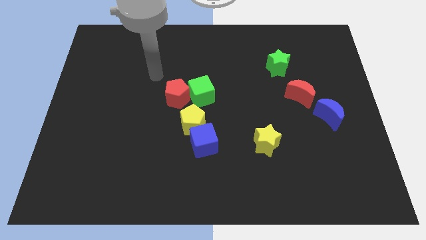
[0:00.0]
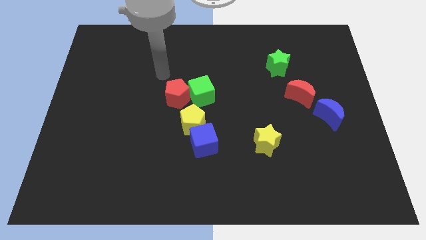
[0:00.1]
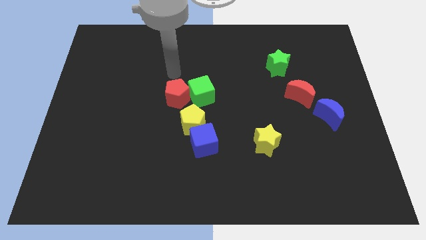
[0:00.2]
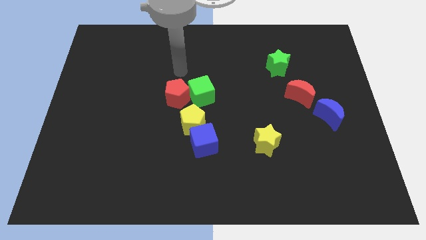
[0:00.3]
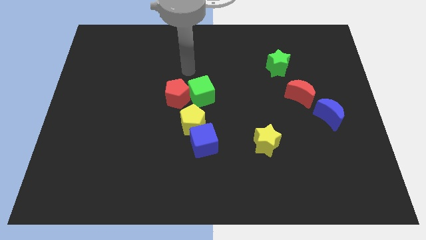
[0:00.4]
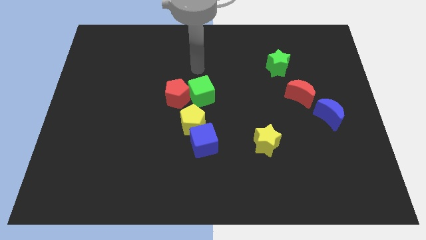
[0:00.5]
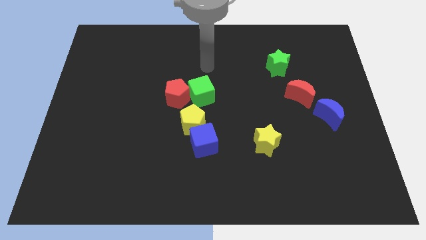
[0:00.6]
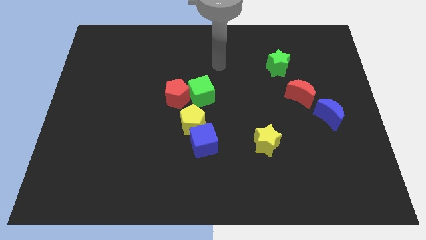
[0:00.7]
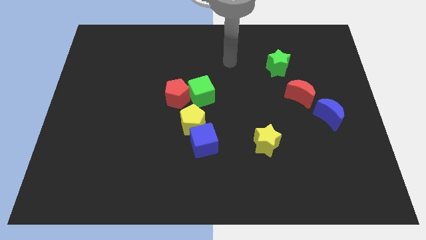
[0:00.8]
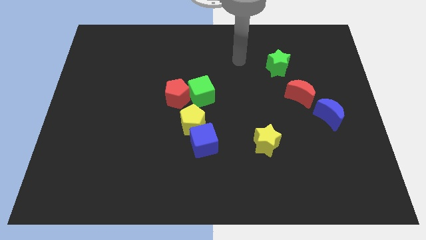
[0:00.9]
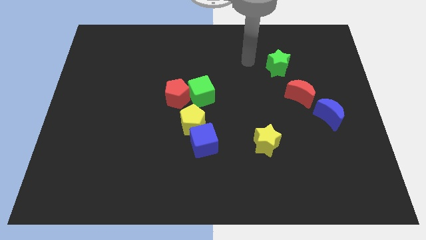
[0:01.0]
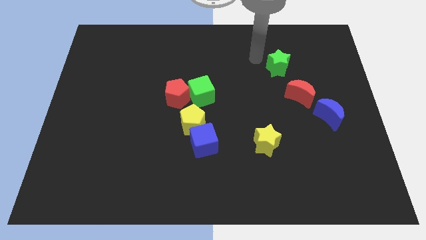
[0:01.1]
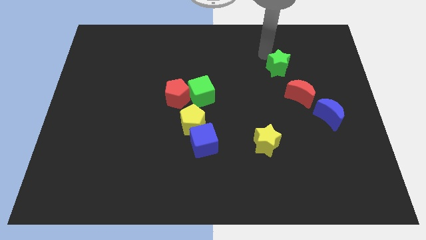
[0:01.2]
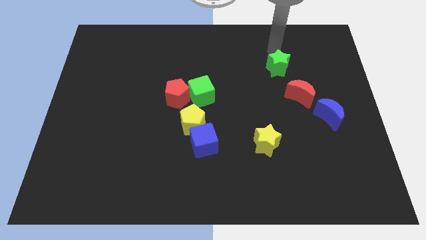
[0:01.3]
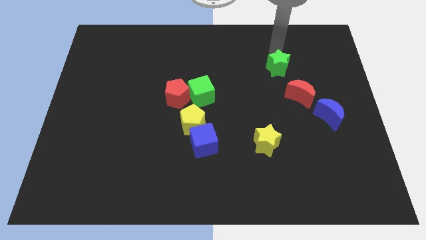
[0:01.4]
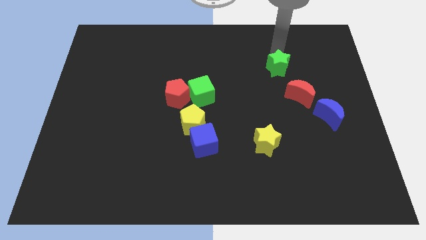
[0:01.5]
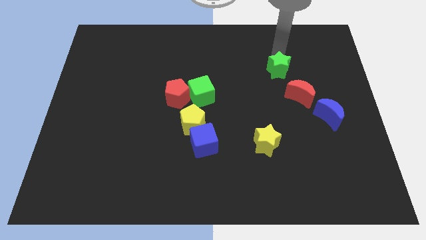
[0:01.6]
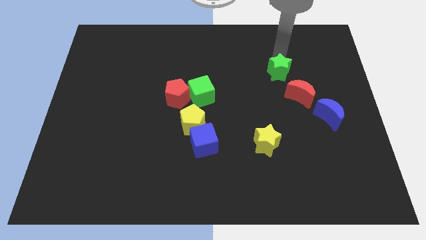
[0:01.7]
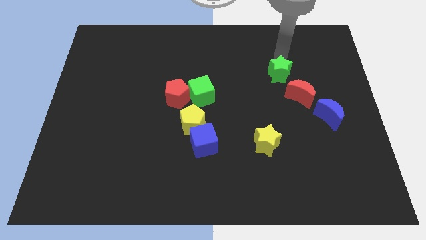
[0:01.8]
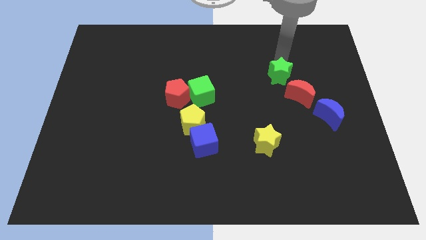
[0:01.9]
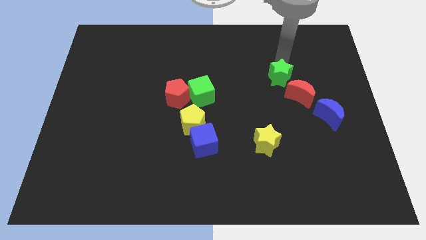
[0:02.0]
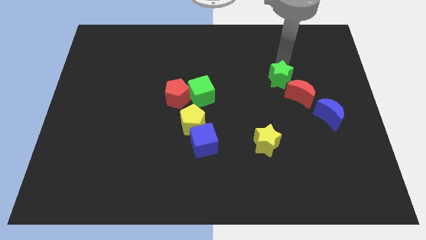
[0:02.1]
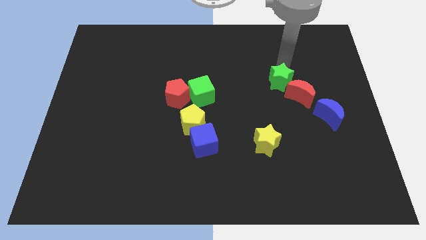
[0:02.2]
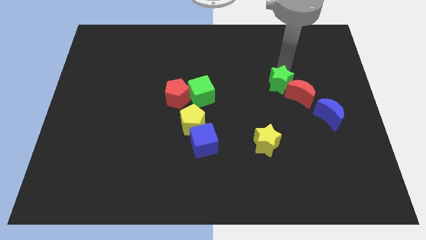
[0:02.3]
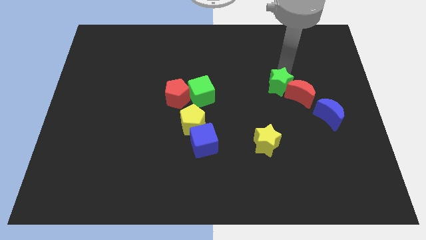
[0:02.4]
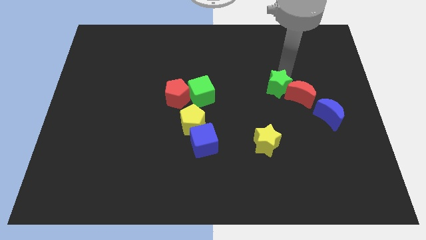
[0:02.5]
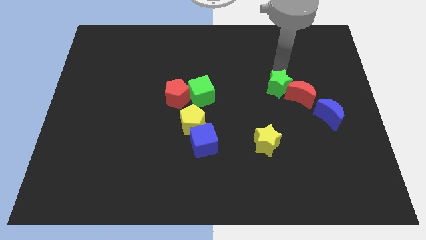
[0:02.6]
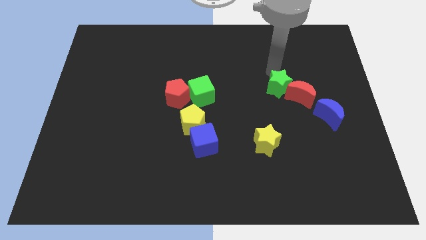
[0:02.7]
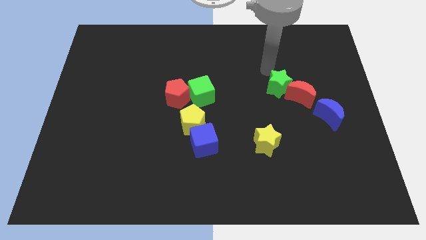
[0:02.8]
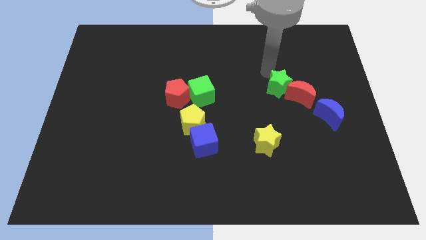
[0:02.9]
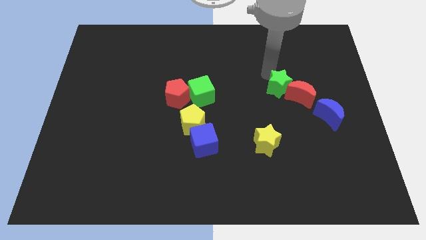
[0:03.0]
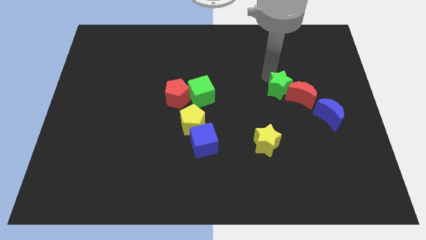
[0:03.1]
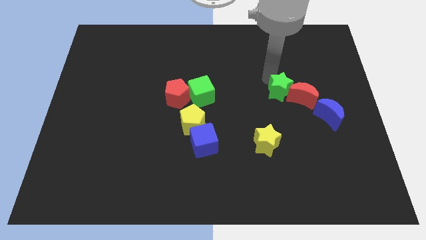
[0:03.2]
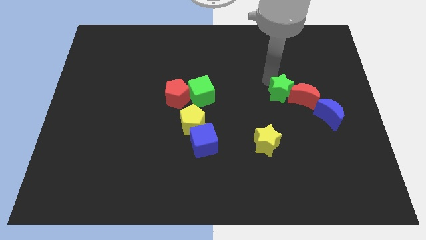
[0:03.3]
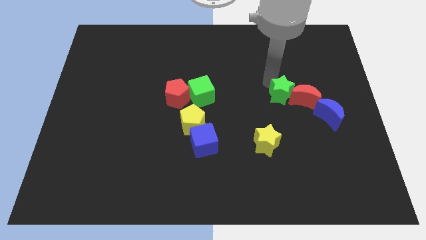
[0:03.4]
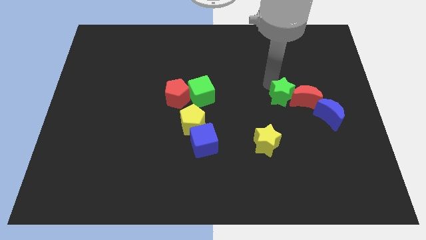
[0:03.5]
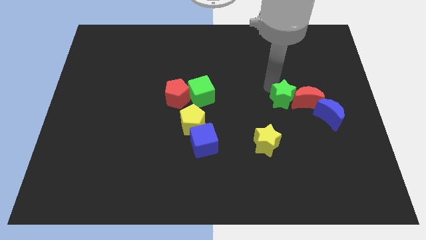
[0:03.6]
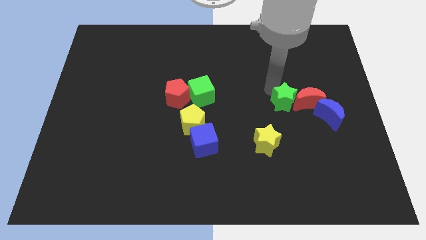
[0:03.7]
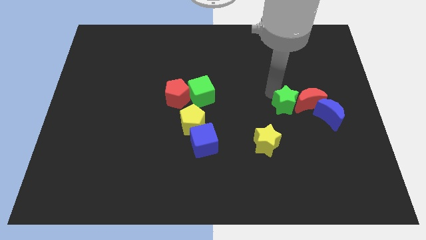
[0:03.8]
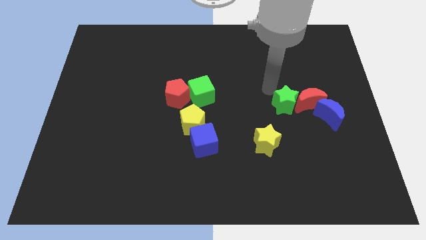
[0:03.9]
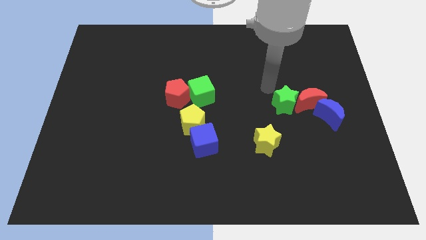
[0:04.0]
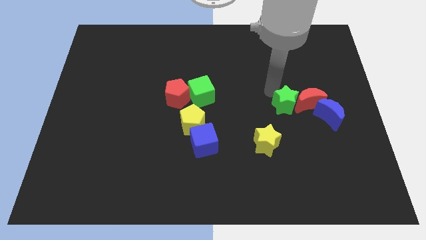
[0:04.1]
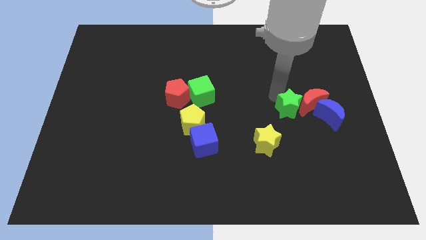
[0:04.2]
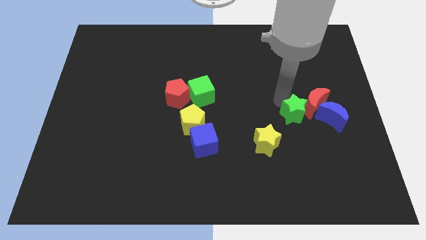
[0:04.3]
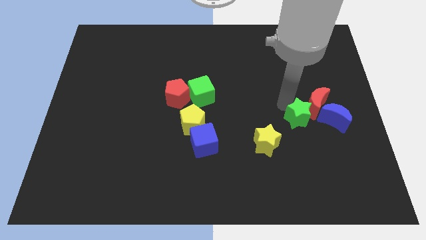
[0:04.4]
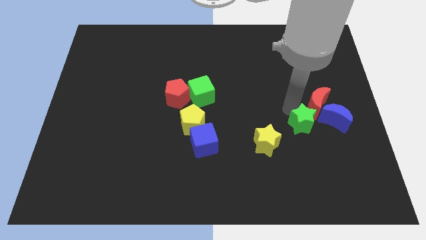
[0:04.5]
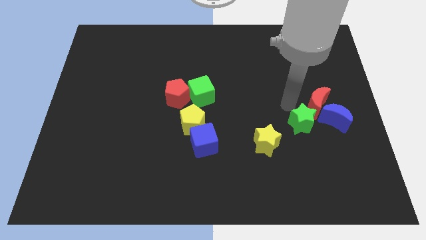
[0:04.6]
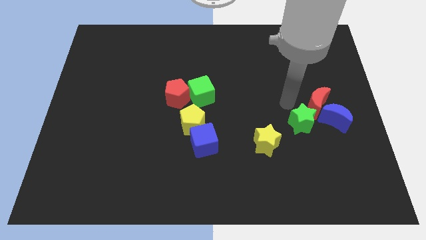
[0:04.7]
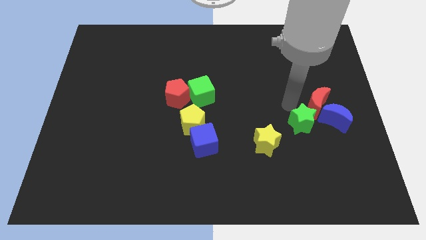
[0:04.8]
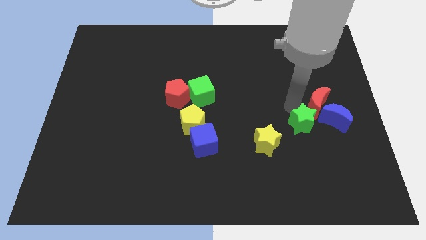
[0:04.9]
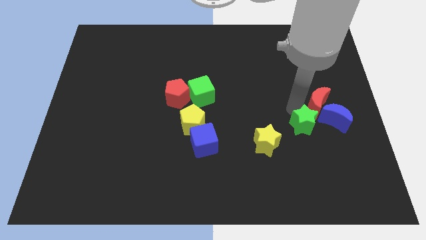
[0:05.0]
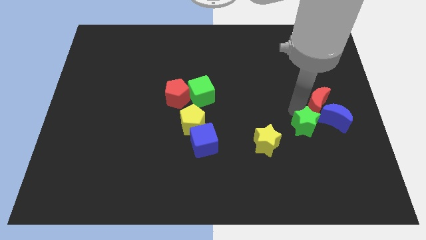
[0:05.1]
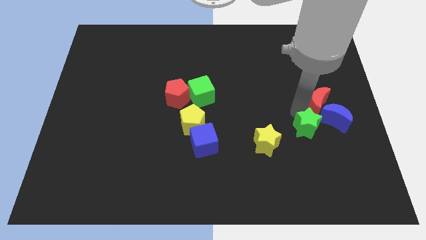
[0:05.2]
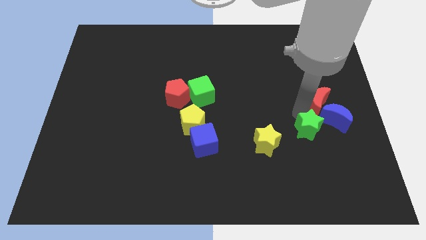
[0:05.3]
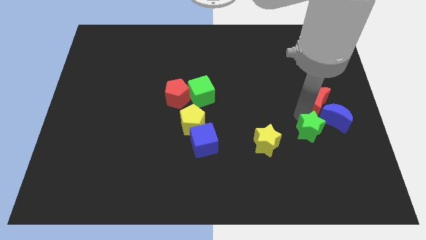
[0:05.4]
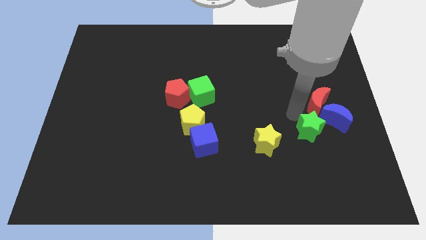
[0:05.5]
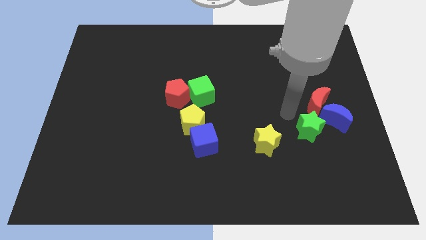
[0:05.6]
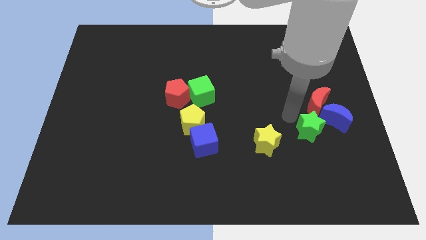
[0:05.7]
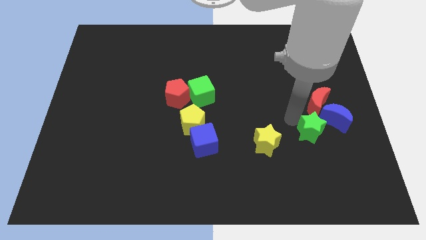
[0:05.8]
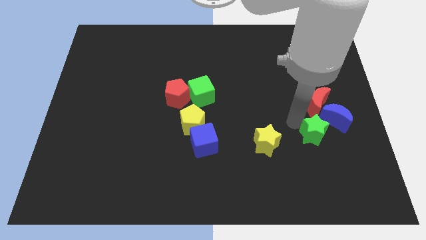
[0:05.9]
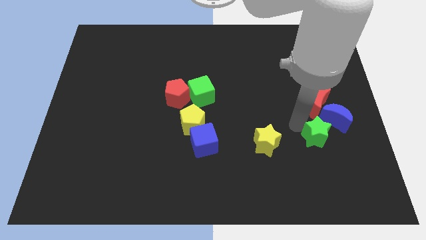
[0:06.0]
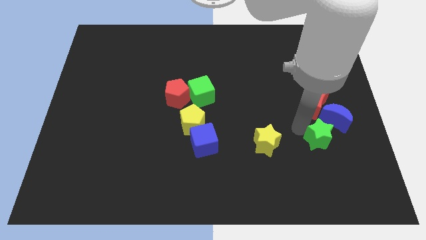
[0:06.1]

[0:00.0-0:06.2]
put the green star to the bottom side of the blue moon
